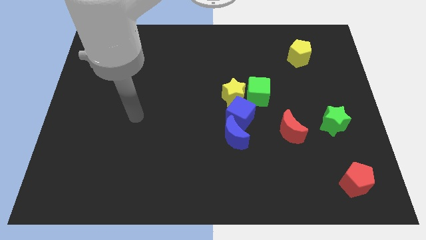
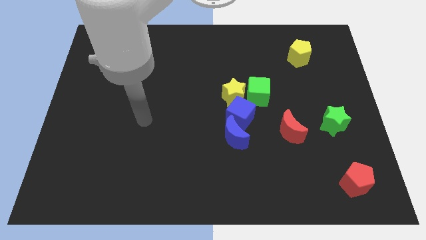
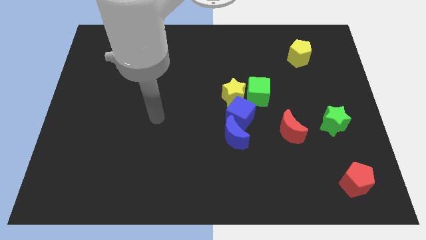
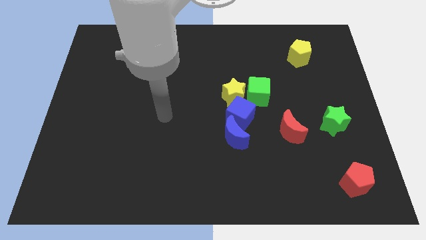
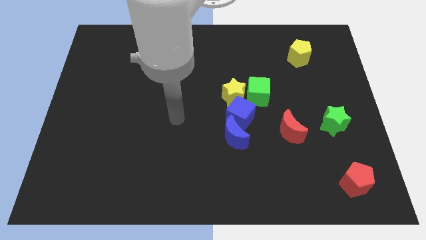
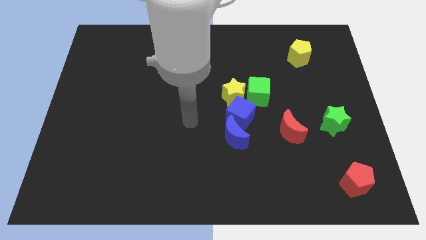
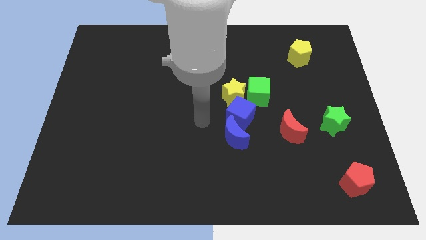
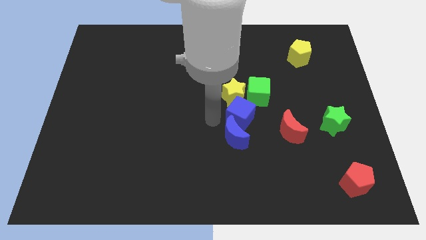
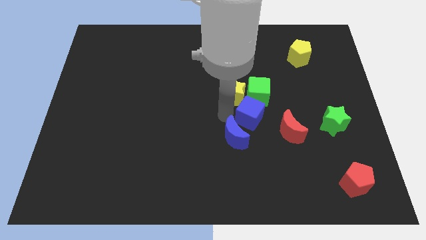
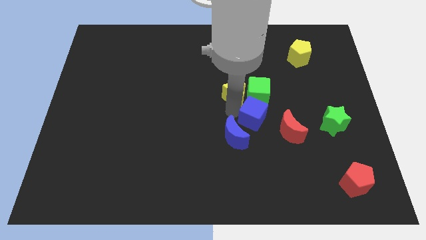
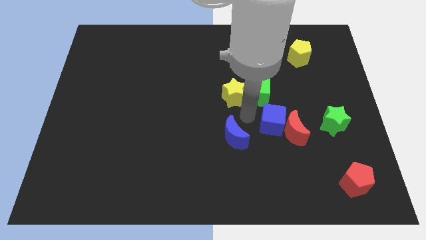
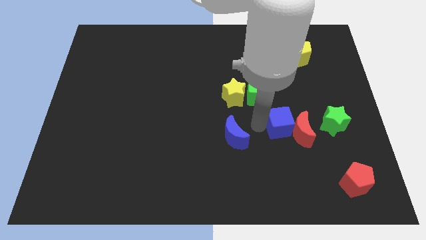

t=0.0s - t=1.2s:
pull the blue moon apart from the blue cube

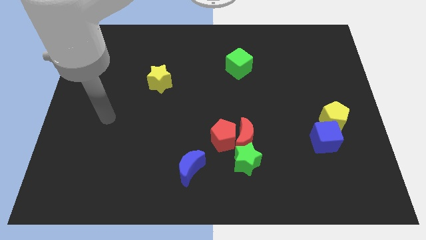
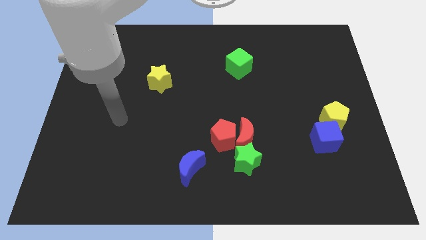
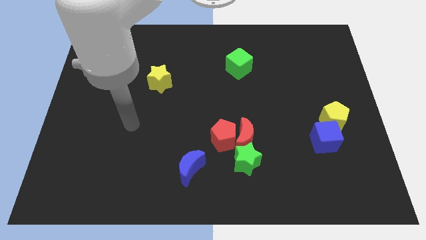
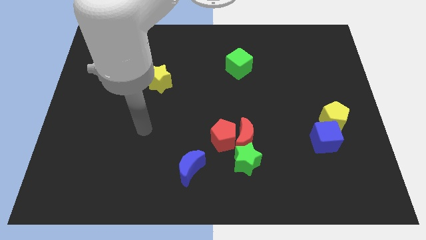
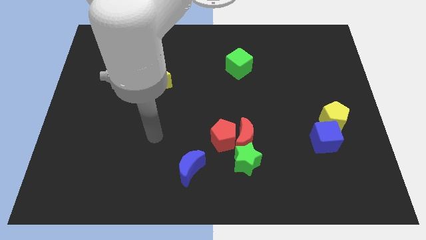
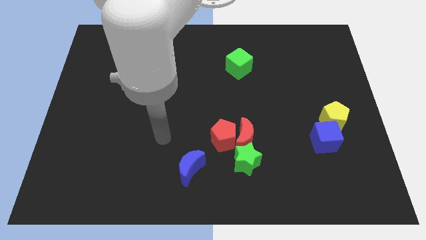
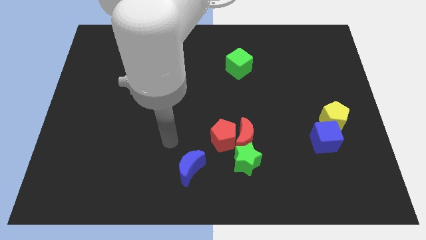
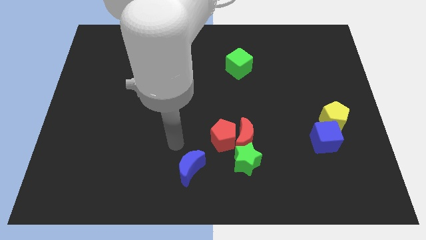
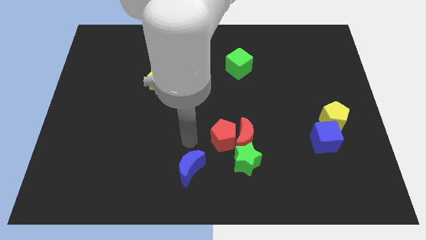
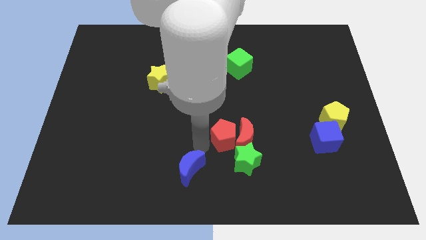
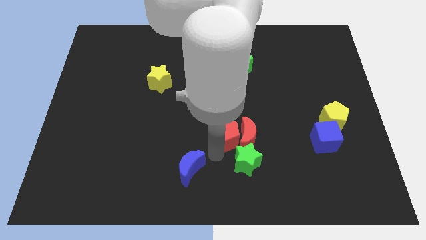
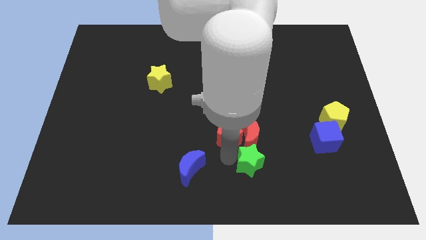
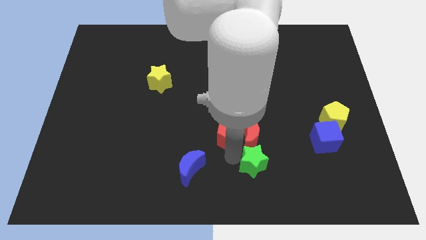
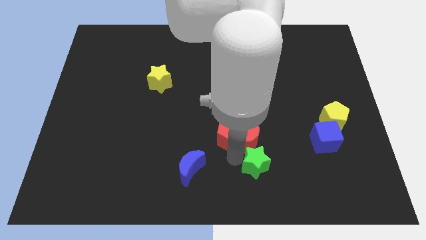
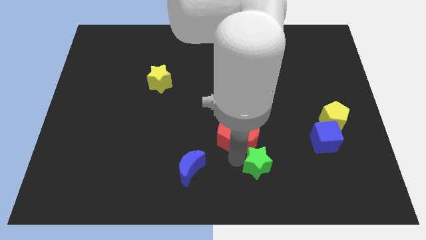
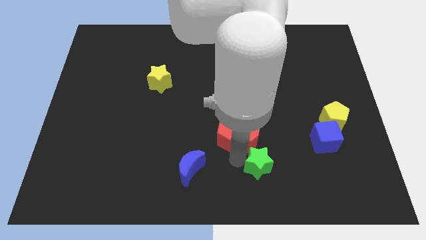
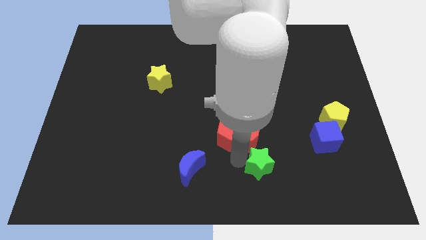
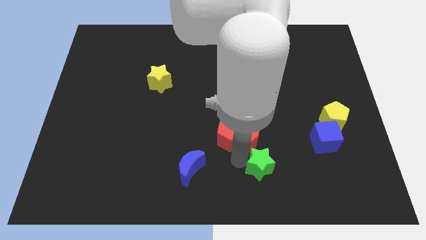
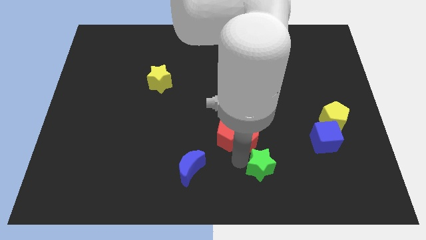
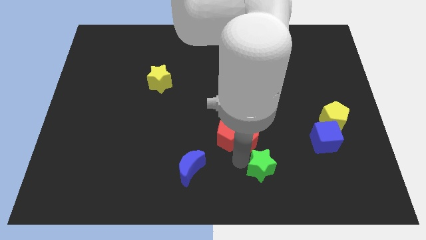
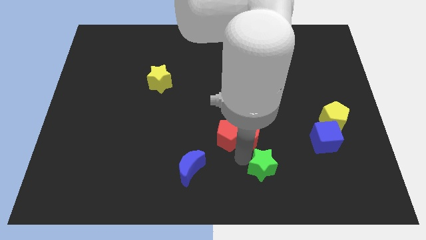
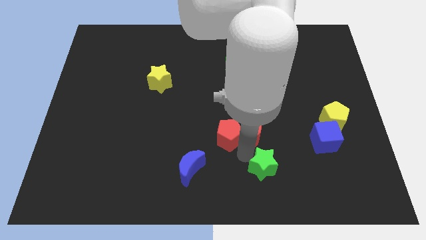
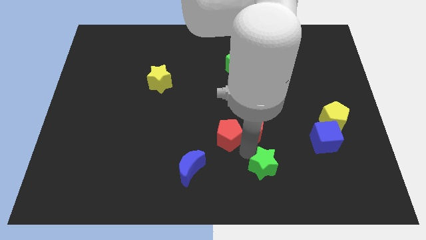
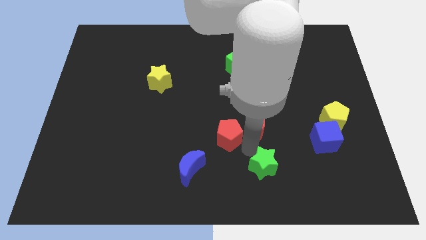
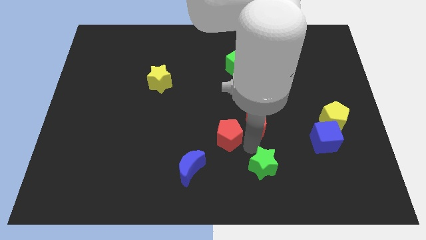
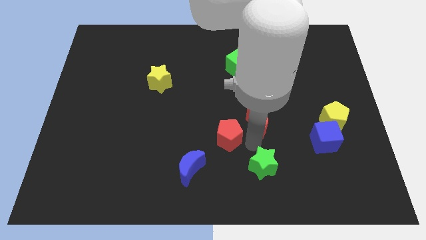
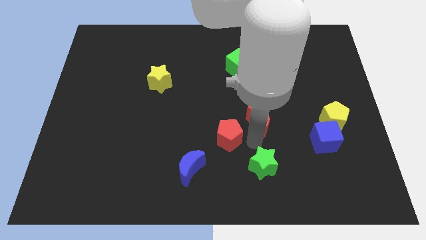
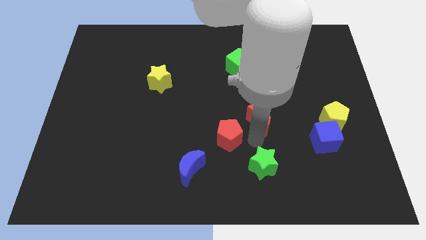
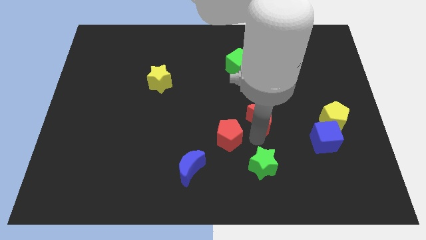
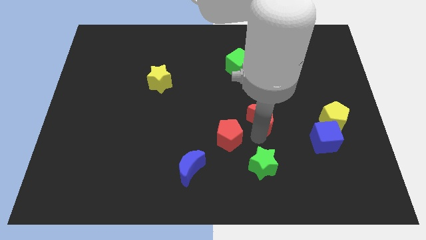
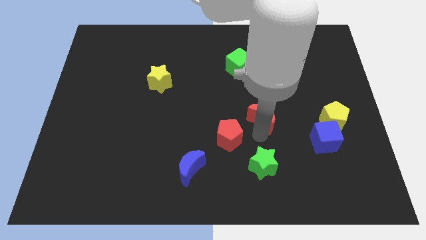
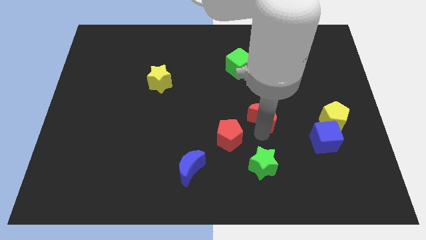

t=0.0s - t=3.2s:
separate the red moon from the red pentagon and green star

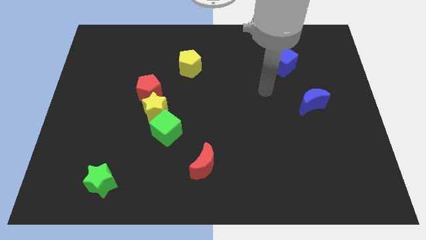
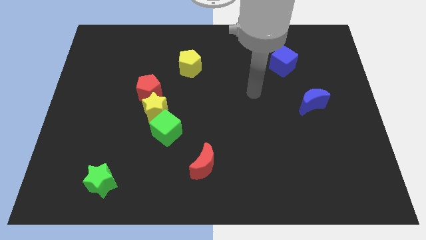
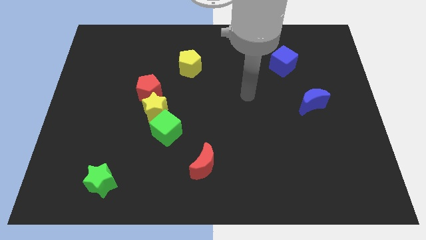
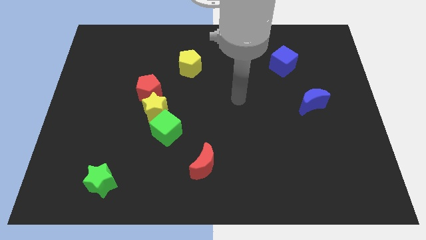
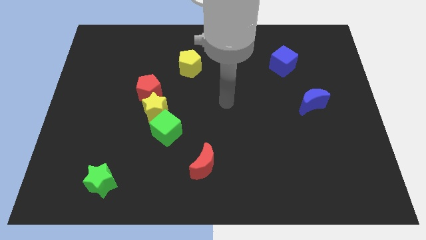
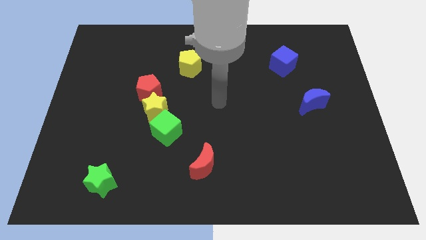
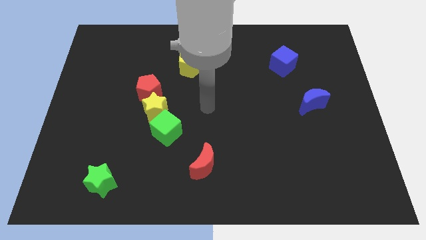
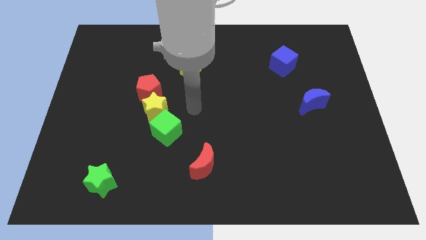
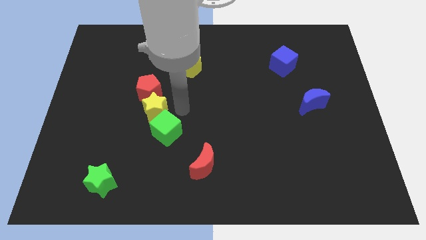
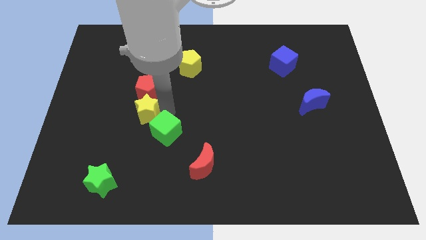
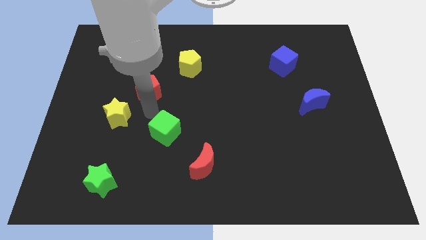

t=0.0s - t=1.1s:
move the red pentagon away from the yellow star

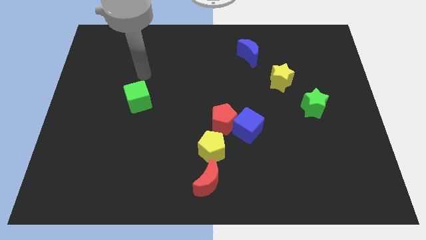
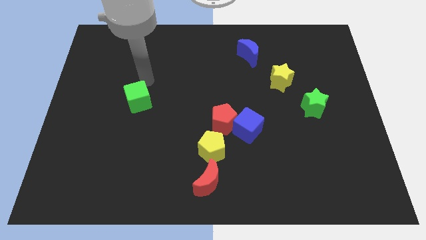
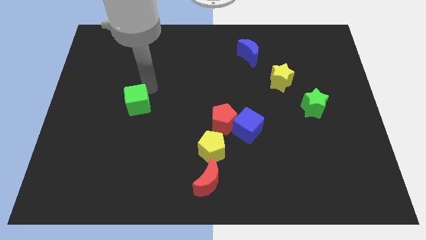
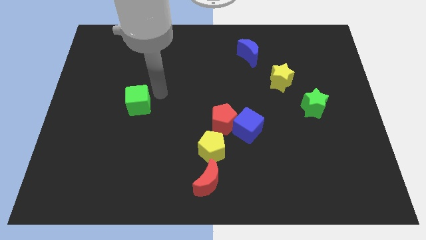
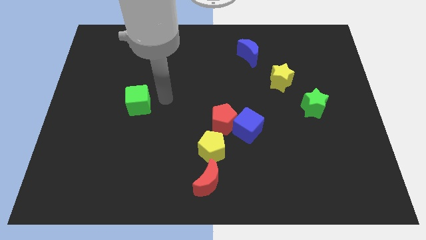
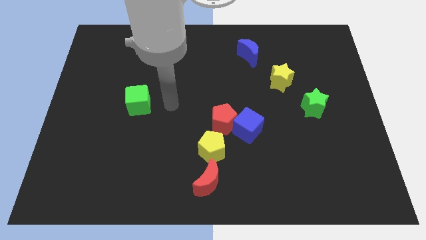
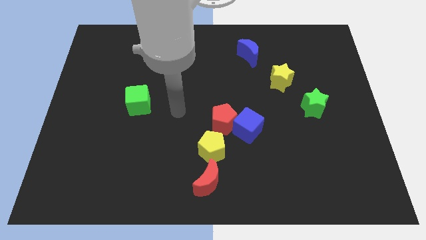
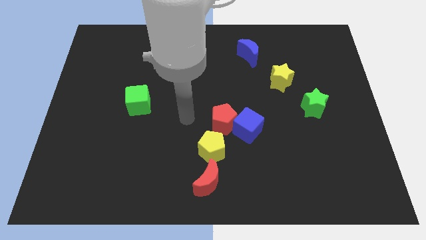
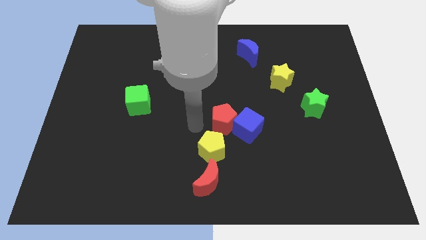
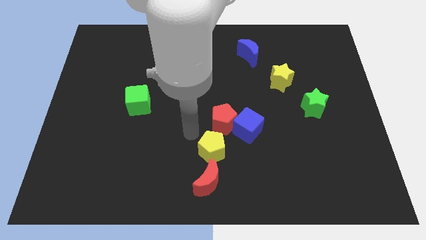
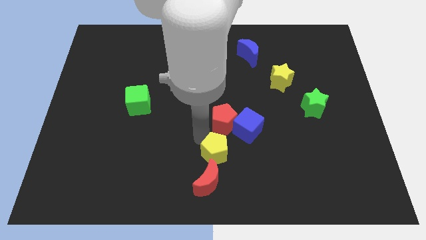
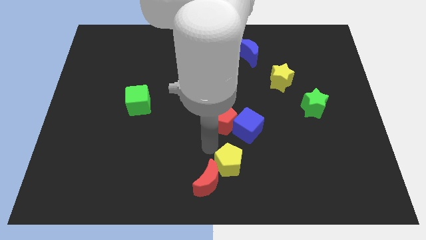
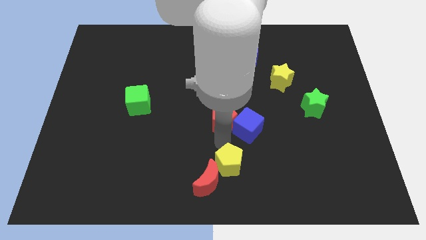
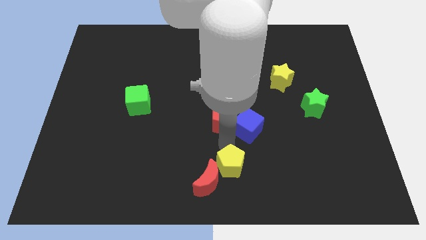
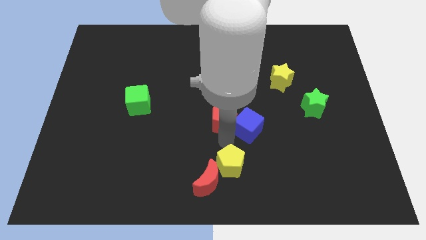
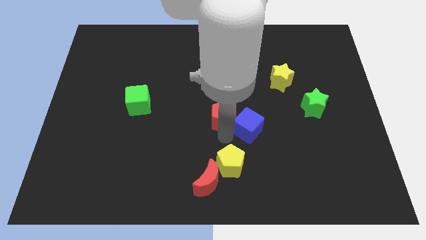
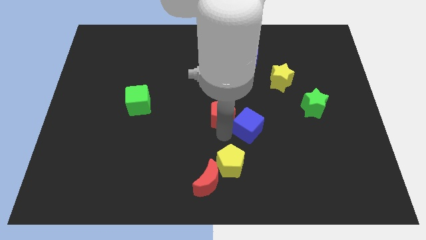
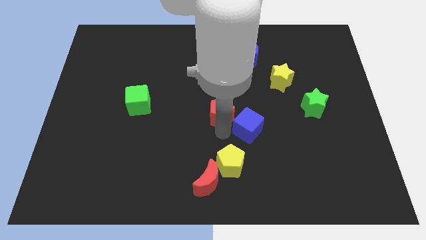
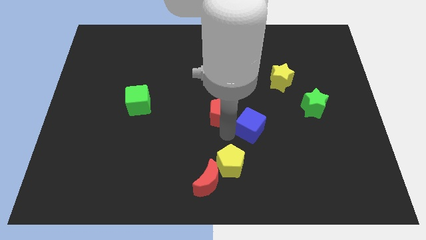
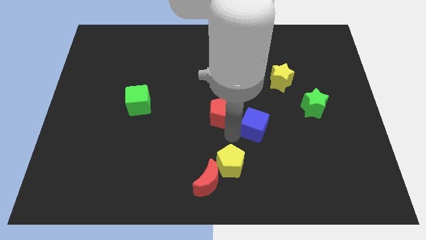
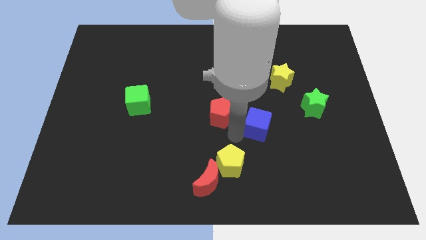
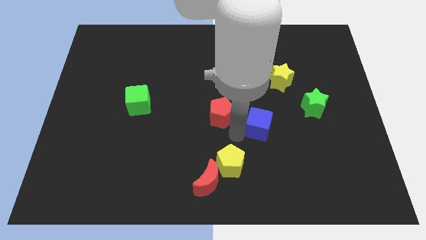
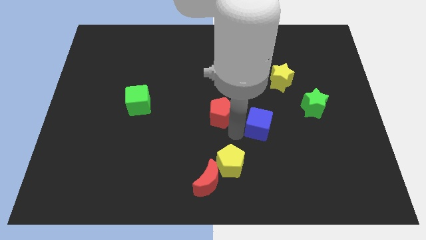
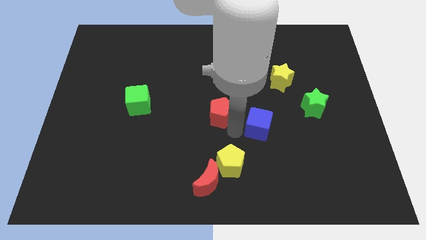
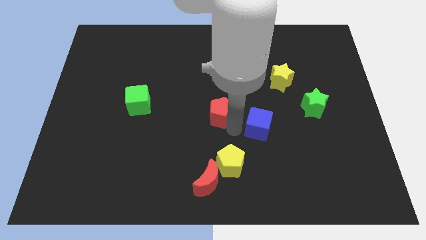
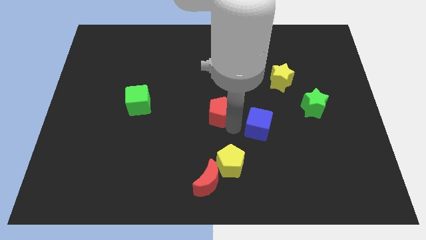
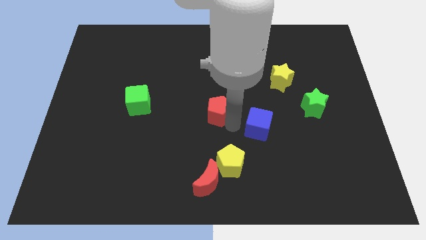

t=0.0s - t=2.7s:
pull the red pentagon apart from the blue cube and yellow pentagon

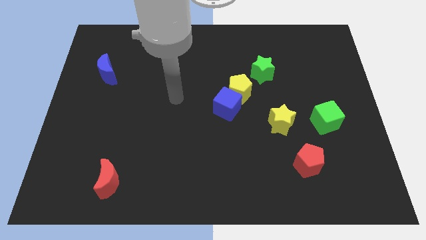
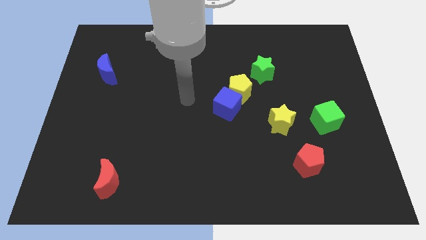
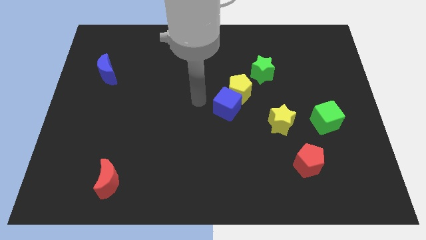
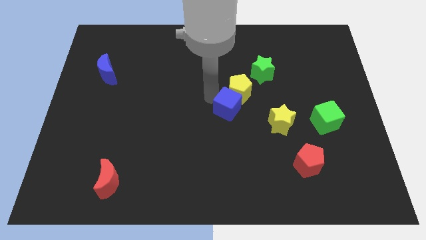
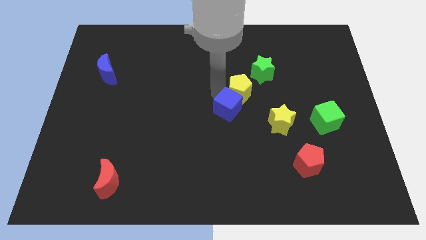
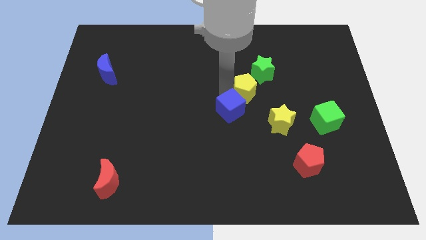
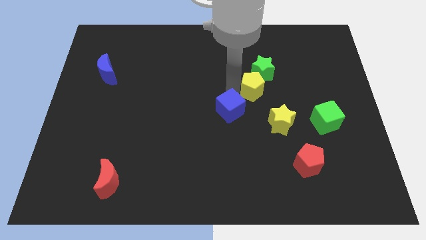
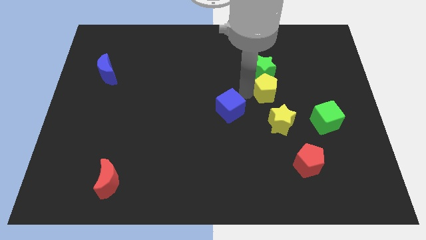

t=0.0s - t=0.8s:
separate the blue cube from the yellow pentagon

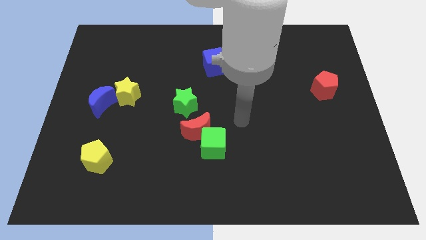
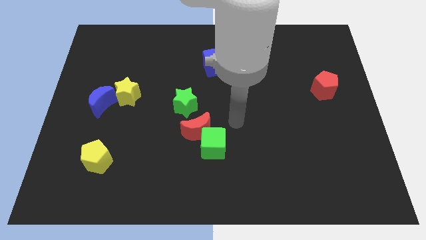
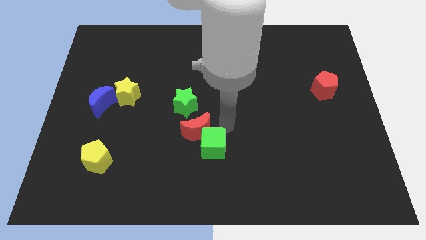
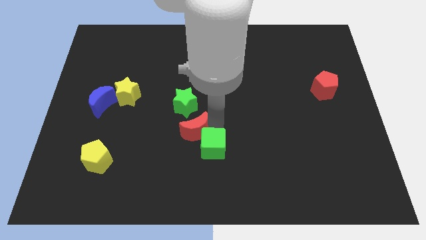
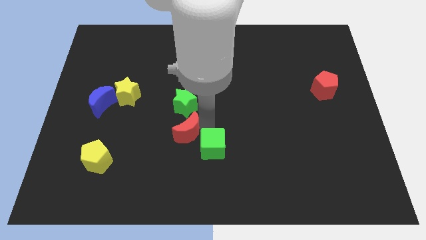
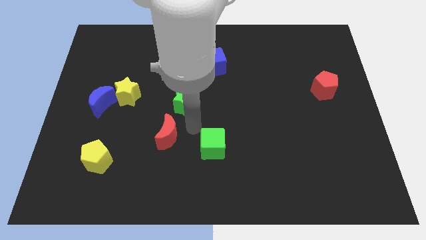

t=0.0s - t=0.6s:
pull the green cube apart from the red moon
